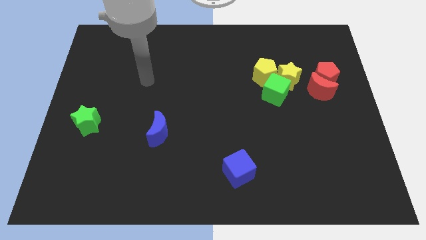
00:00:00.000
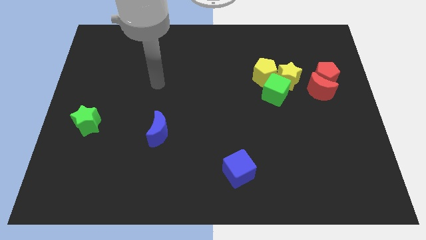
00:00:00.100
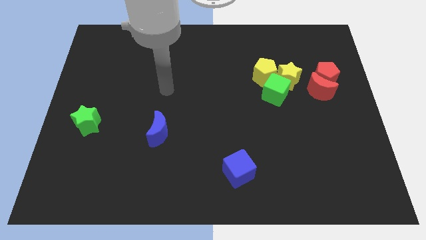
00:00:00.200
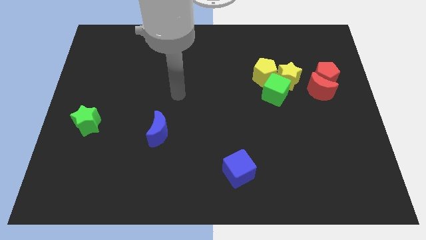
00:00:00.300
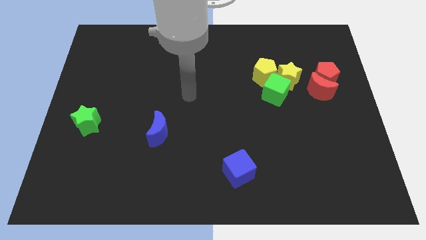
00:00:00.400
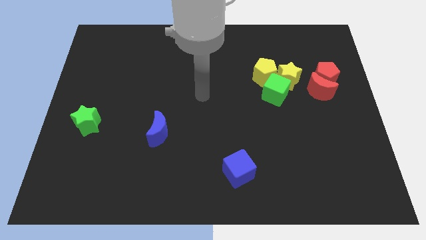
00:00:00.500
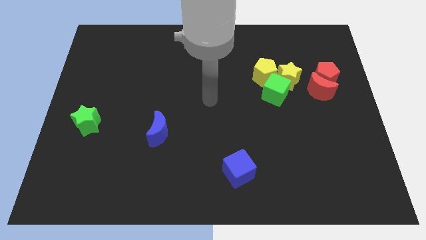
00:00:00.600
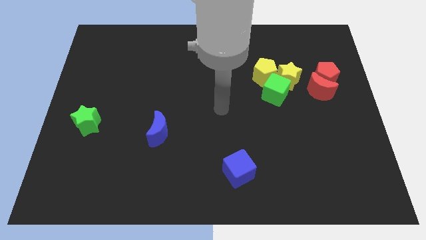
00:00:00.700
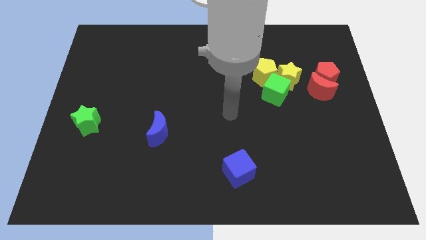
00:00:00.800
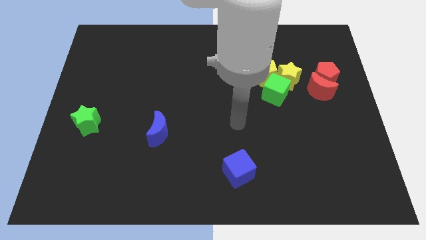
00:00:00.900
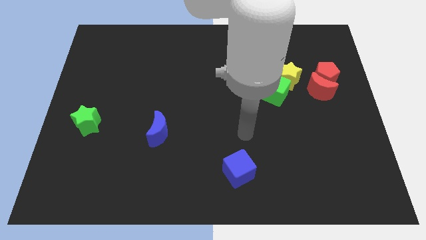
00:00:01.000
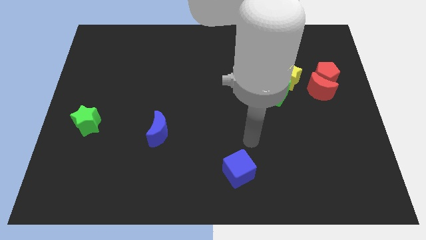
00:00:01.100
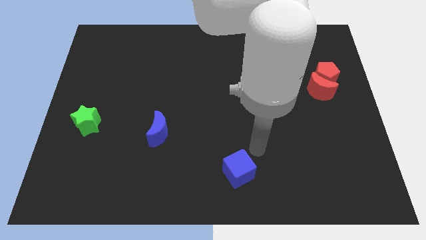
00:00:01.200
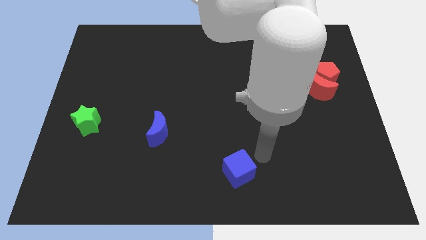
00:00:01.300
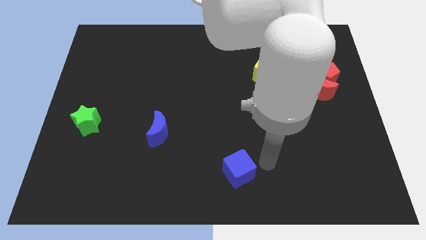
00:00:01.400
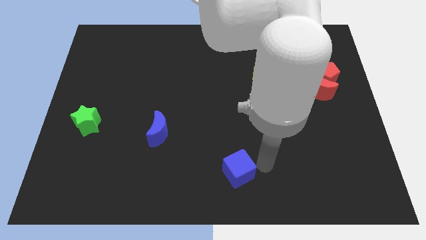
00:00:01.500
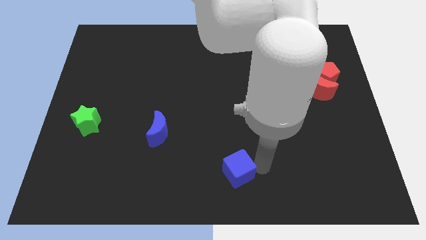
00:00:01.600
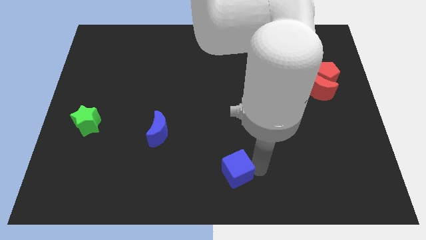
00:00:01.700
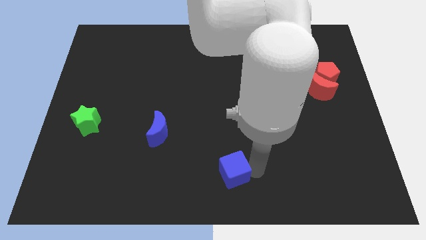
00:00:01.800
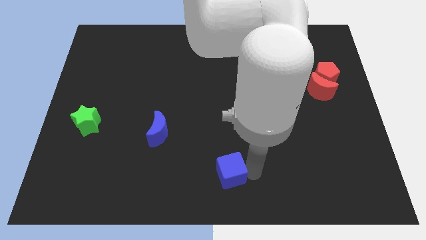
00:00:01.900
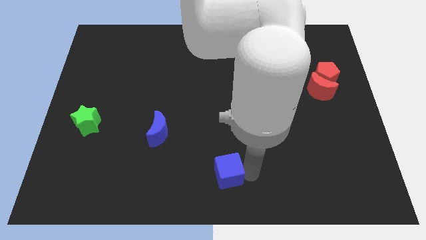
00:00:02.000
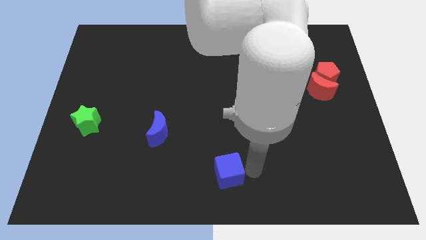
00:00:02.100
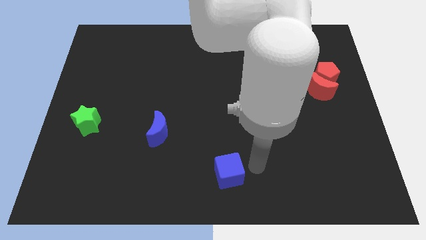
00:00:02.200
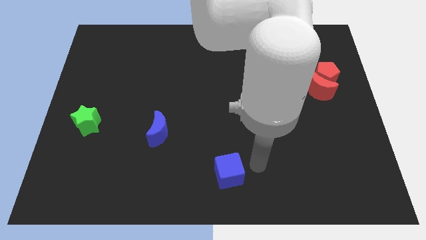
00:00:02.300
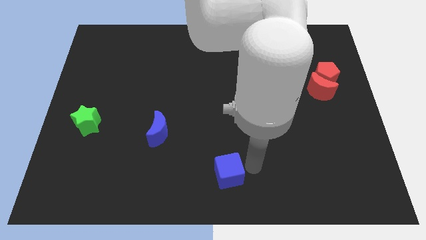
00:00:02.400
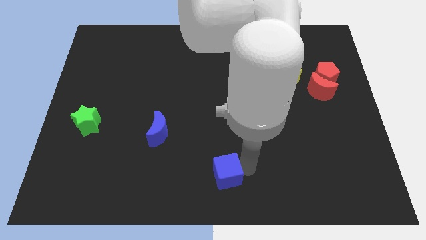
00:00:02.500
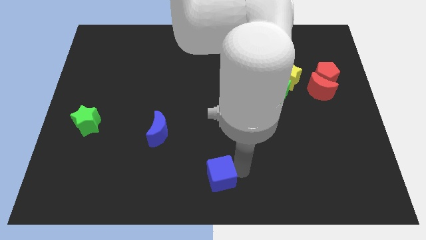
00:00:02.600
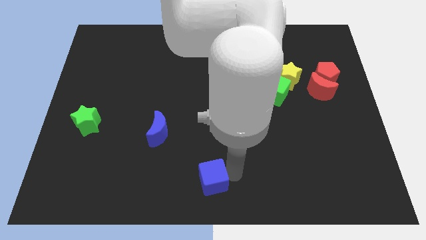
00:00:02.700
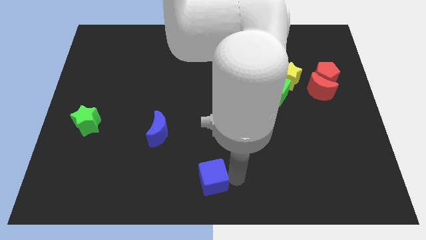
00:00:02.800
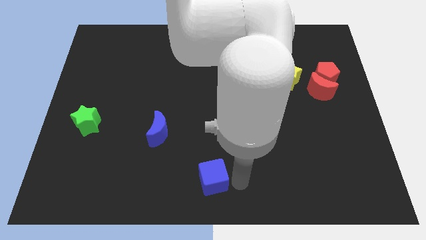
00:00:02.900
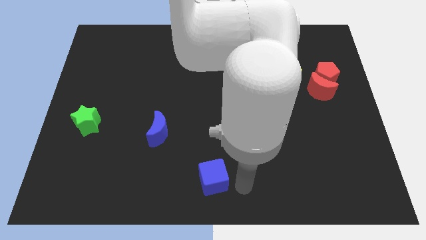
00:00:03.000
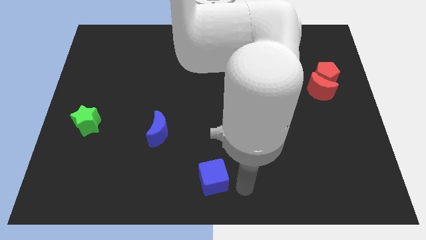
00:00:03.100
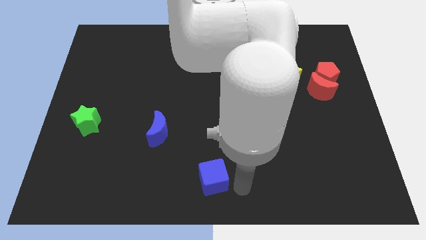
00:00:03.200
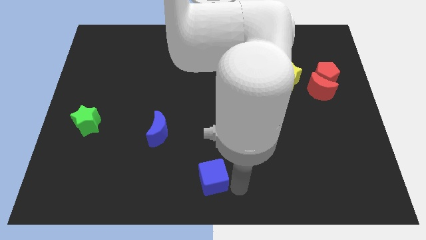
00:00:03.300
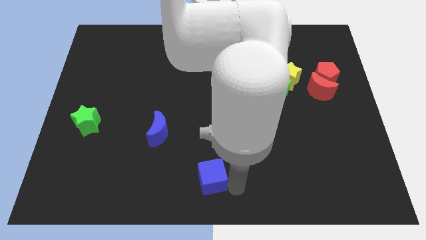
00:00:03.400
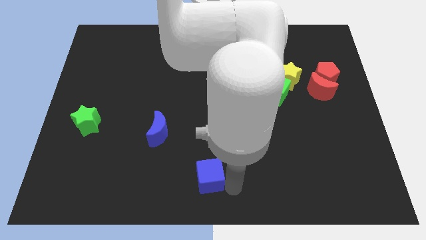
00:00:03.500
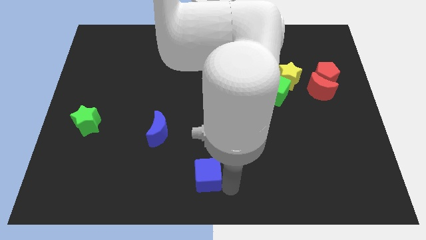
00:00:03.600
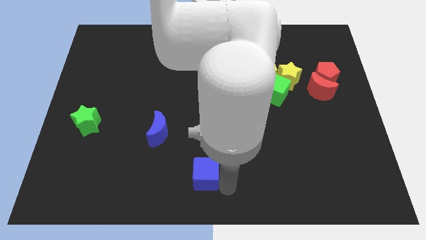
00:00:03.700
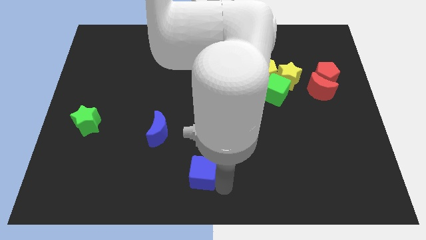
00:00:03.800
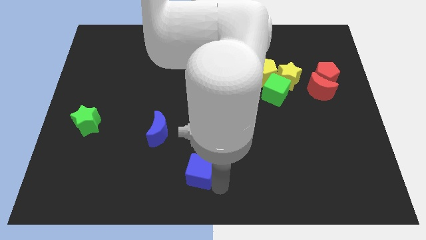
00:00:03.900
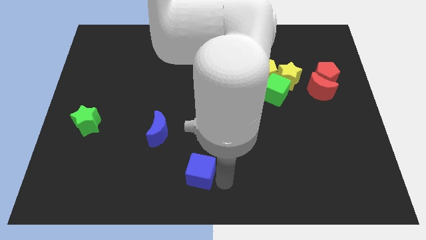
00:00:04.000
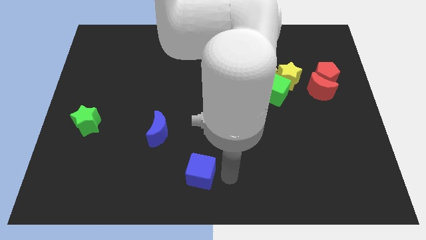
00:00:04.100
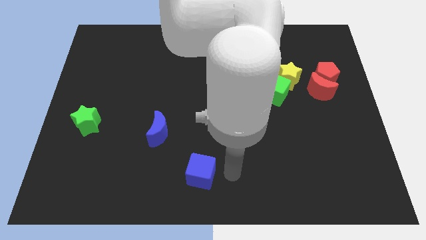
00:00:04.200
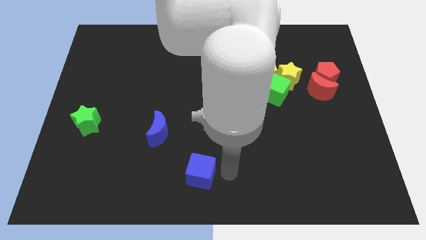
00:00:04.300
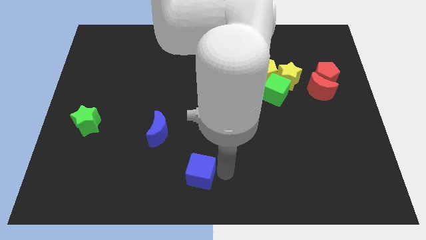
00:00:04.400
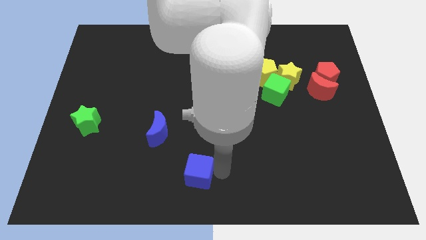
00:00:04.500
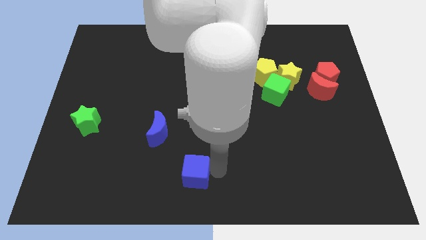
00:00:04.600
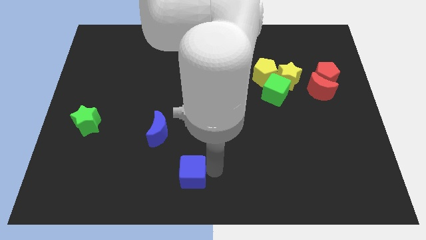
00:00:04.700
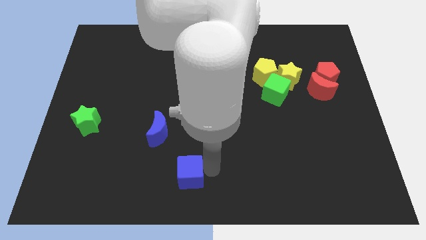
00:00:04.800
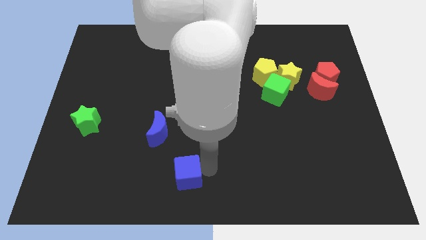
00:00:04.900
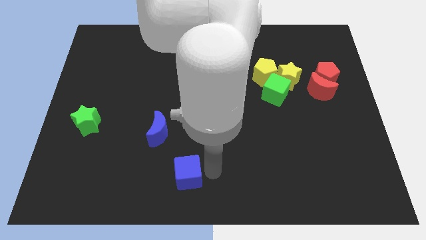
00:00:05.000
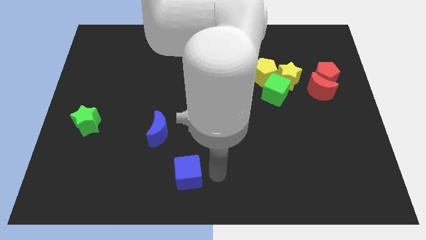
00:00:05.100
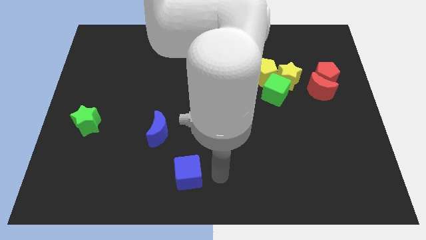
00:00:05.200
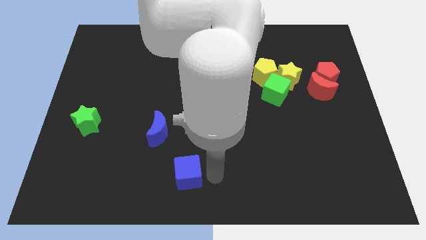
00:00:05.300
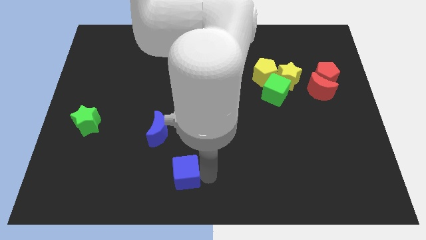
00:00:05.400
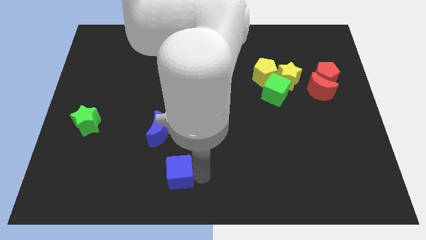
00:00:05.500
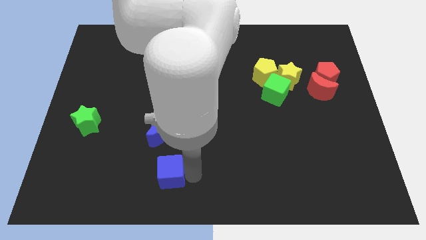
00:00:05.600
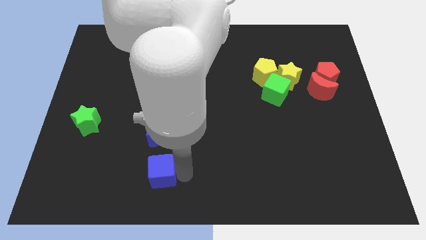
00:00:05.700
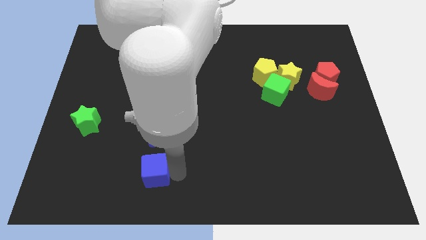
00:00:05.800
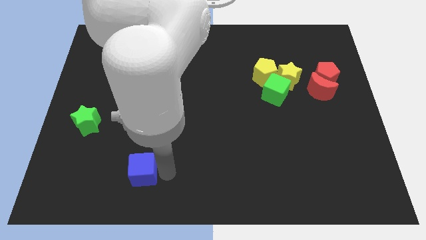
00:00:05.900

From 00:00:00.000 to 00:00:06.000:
push the blue cube left

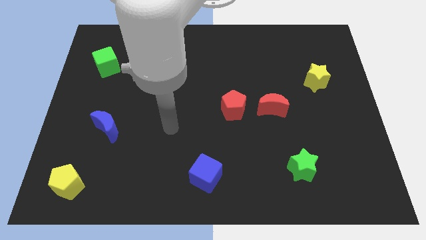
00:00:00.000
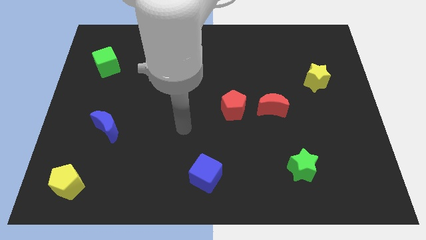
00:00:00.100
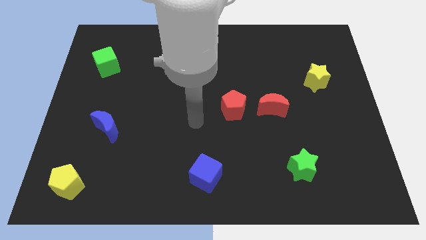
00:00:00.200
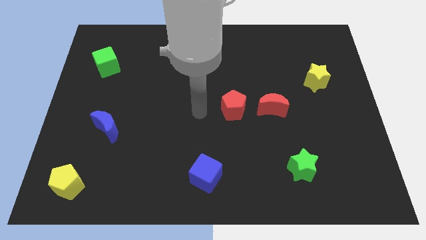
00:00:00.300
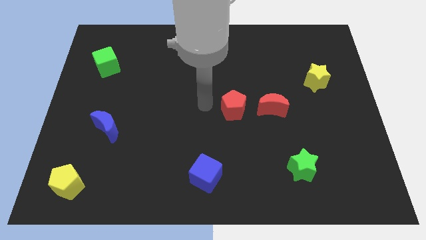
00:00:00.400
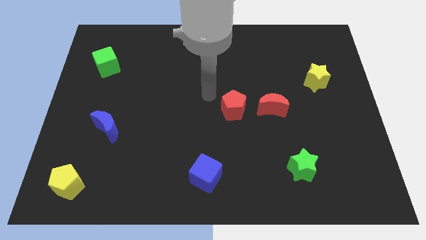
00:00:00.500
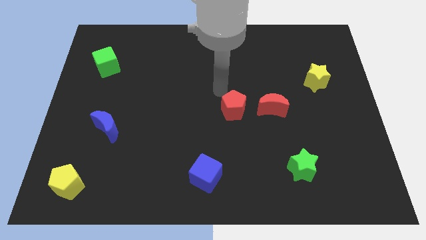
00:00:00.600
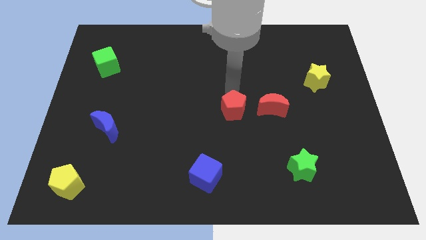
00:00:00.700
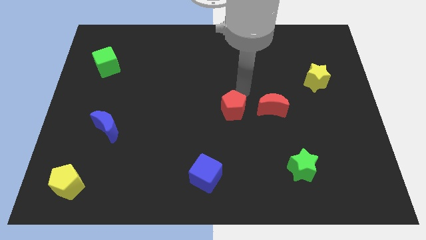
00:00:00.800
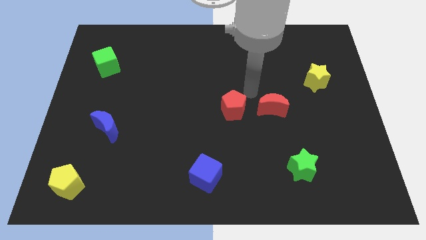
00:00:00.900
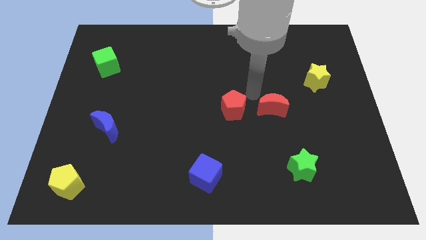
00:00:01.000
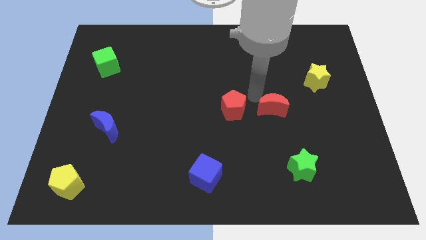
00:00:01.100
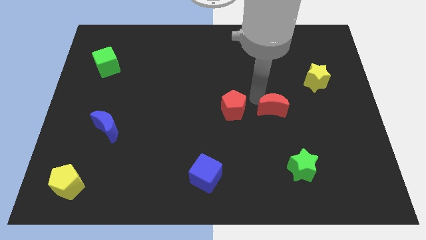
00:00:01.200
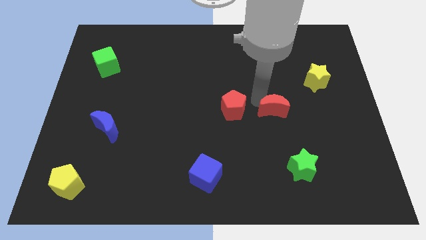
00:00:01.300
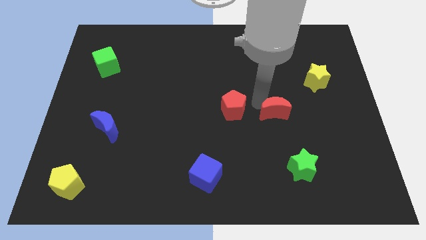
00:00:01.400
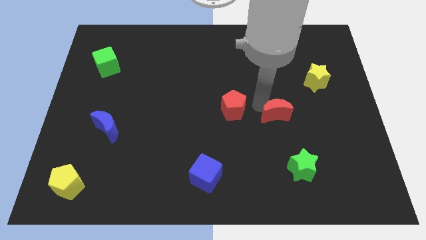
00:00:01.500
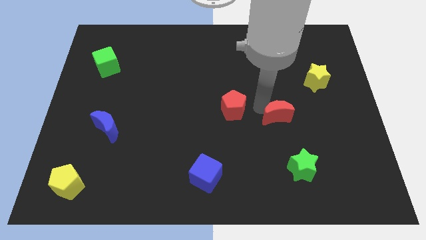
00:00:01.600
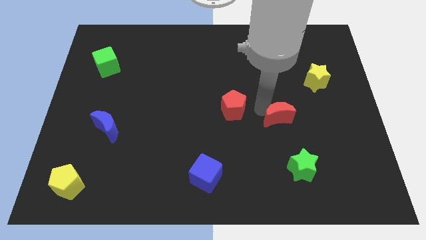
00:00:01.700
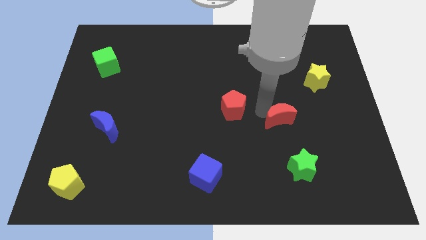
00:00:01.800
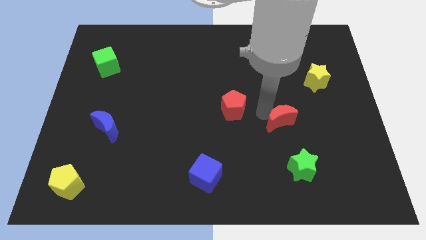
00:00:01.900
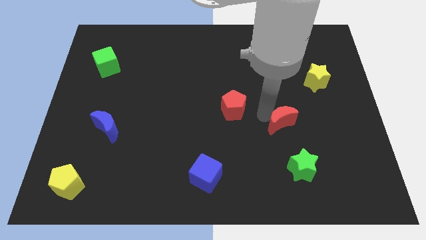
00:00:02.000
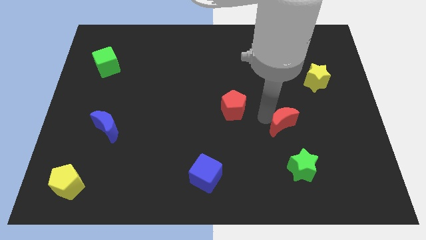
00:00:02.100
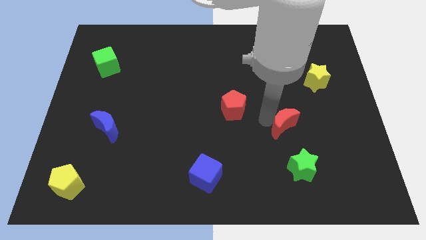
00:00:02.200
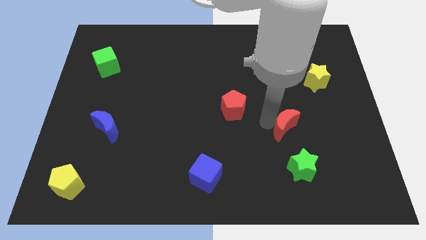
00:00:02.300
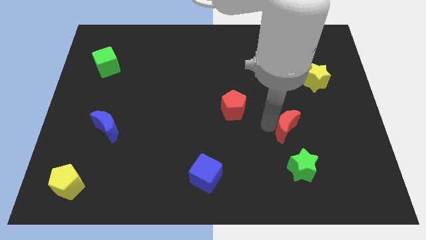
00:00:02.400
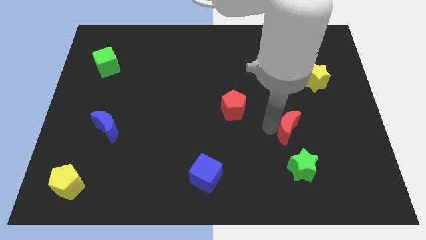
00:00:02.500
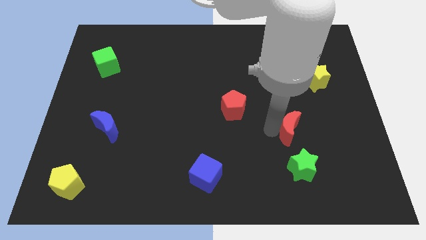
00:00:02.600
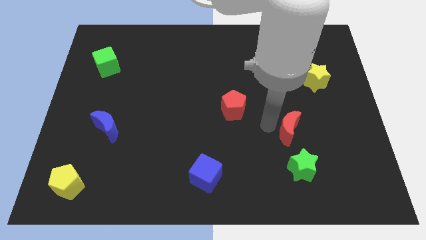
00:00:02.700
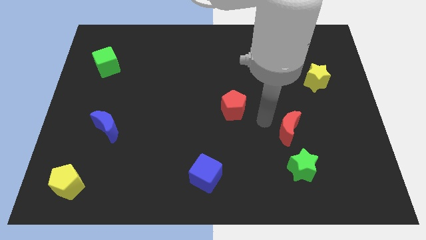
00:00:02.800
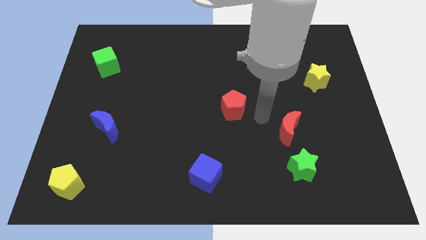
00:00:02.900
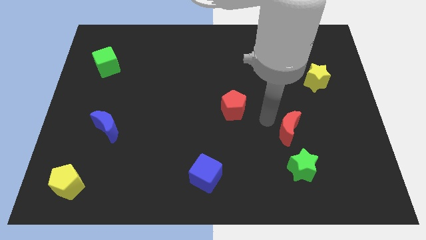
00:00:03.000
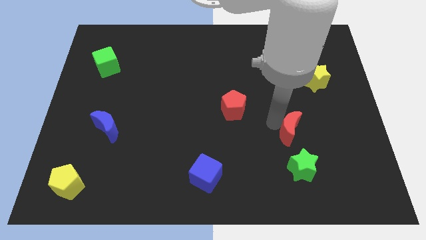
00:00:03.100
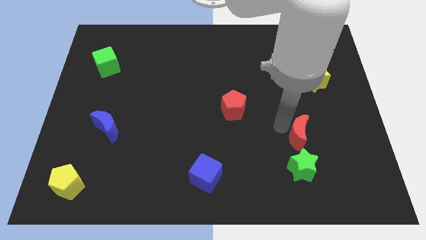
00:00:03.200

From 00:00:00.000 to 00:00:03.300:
push the red moon a little diagonally down and right
